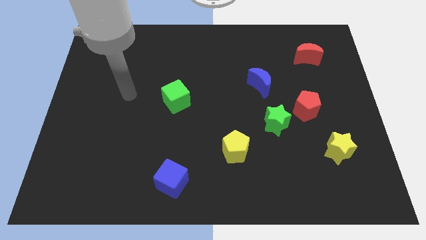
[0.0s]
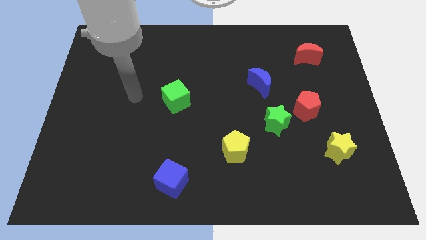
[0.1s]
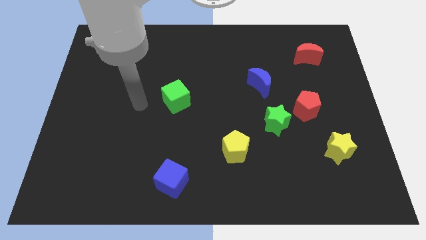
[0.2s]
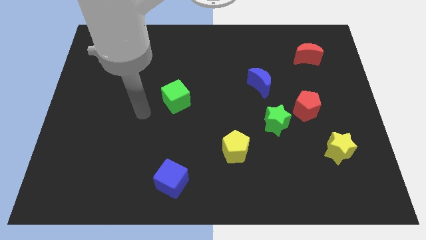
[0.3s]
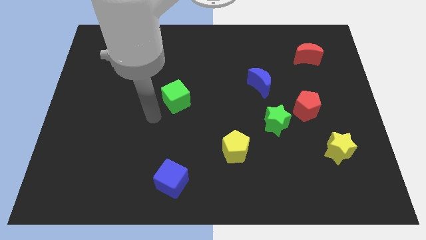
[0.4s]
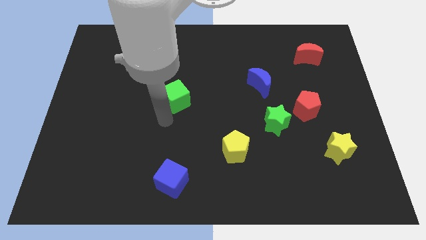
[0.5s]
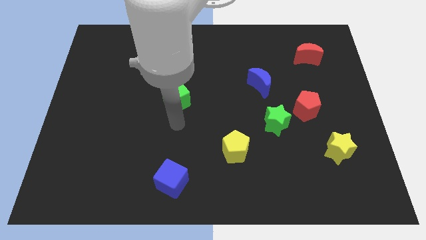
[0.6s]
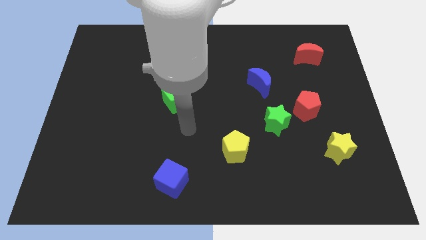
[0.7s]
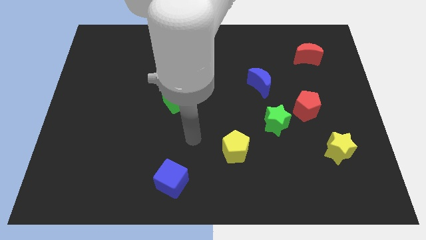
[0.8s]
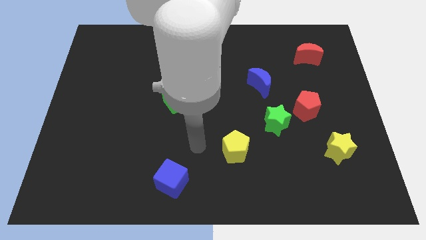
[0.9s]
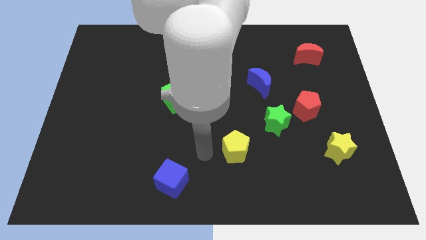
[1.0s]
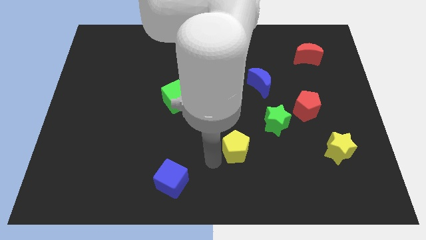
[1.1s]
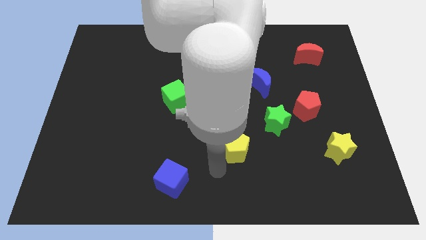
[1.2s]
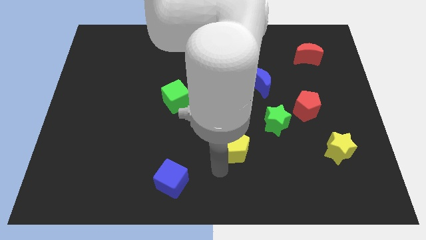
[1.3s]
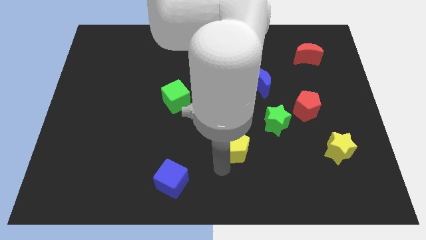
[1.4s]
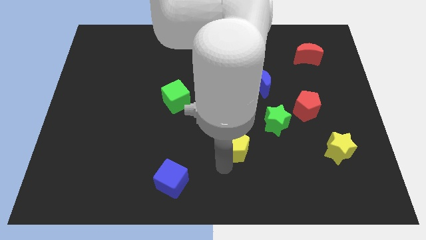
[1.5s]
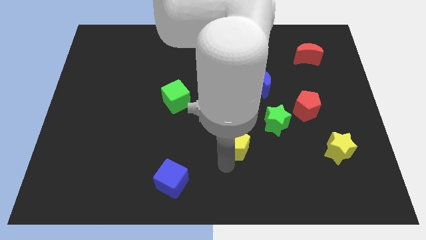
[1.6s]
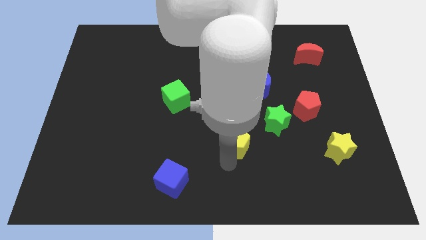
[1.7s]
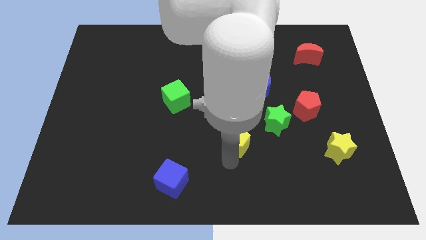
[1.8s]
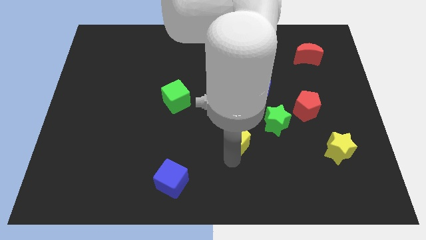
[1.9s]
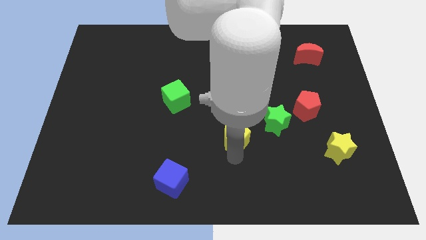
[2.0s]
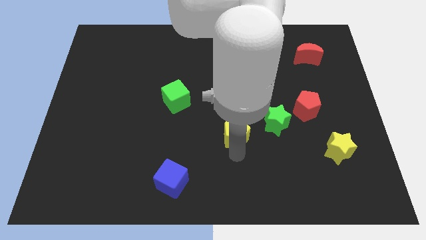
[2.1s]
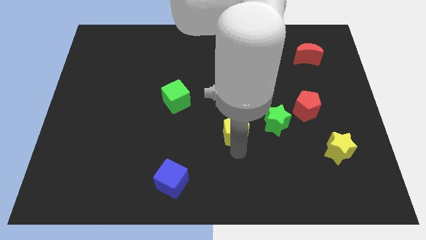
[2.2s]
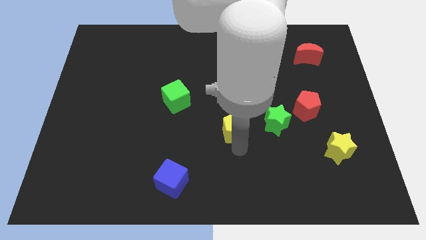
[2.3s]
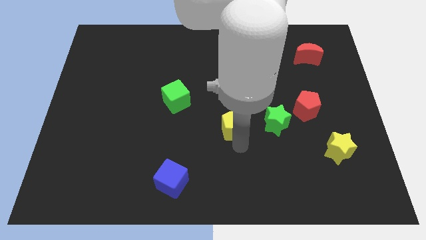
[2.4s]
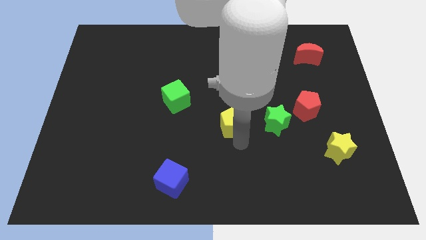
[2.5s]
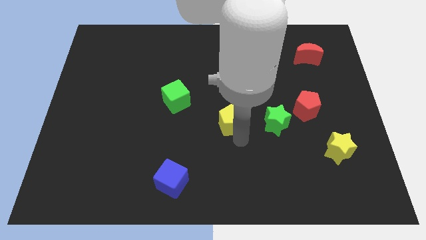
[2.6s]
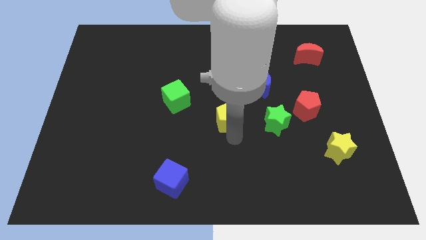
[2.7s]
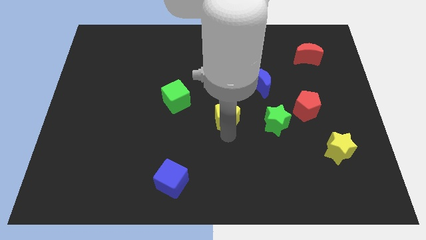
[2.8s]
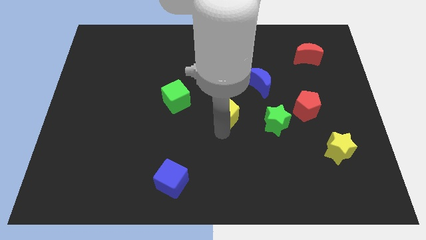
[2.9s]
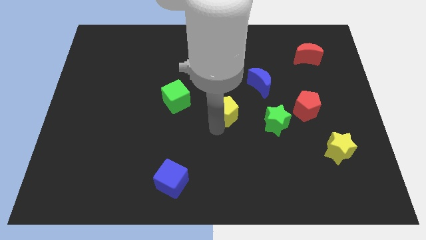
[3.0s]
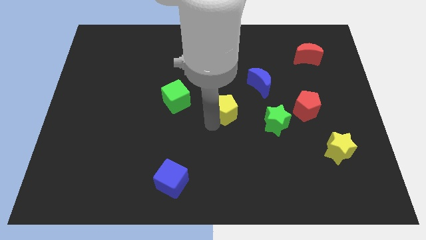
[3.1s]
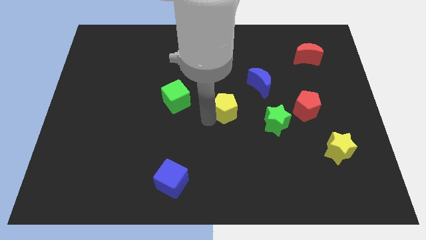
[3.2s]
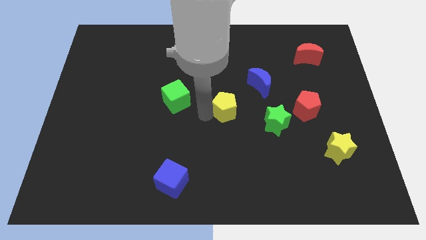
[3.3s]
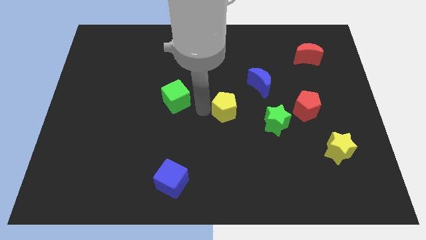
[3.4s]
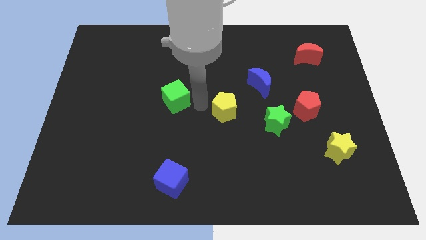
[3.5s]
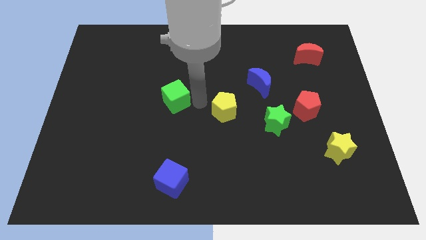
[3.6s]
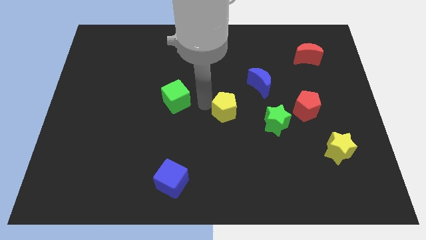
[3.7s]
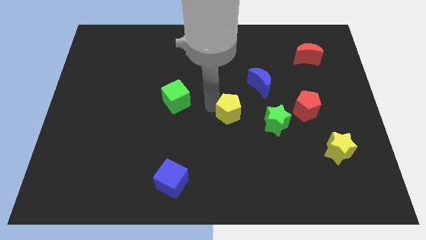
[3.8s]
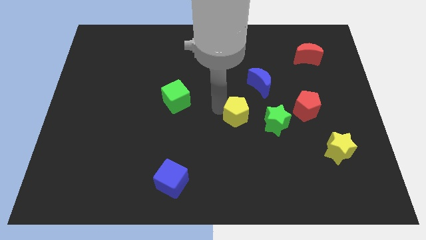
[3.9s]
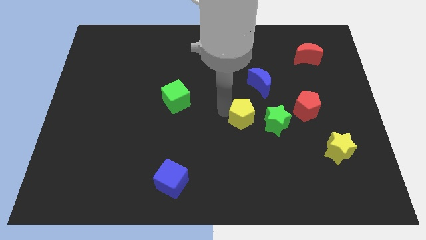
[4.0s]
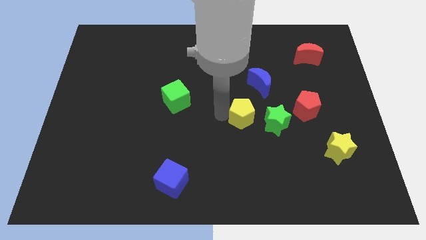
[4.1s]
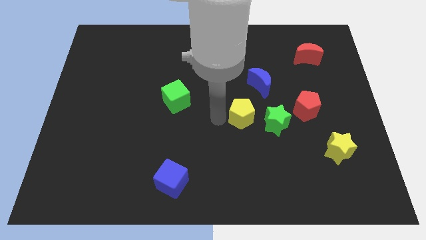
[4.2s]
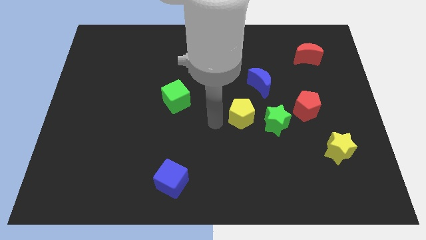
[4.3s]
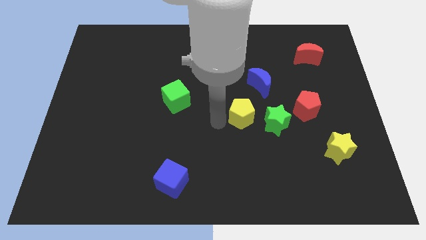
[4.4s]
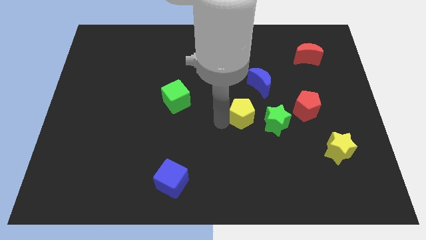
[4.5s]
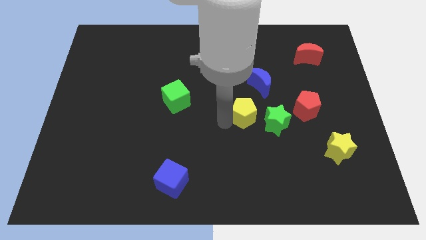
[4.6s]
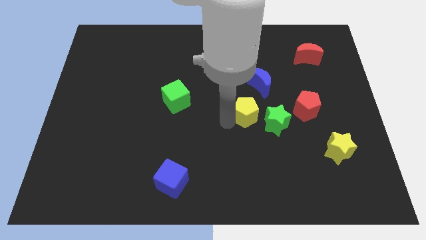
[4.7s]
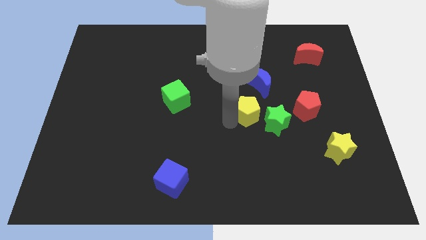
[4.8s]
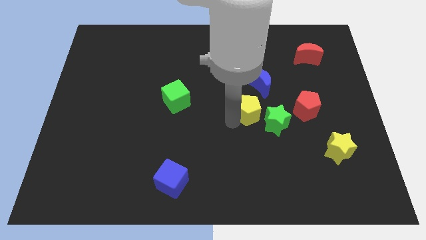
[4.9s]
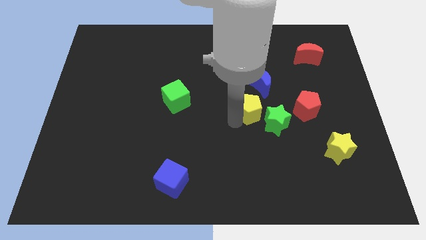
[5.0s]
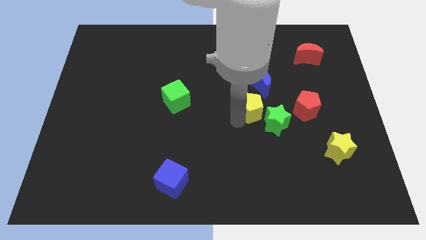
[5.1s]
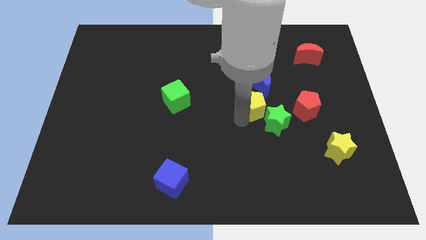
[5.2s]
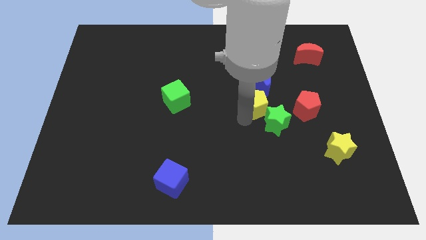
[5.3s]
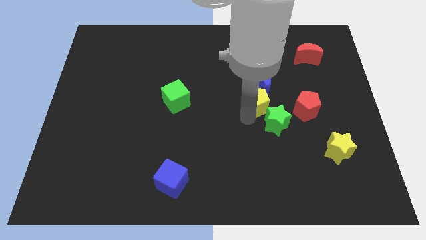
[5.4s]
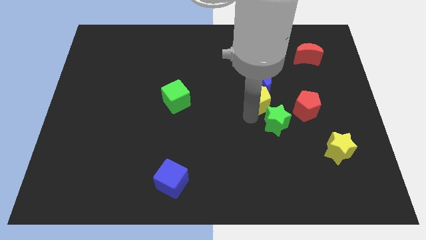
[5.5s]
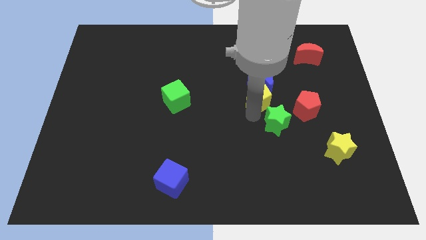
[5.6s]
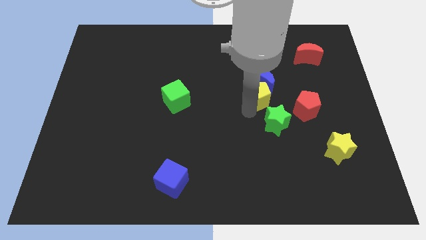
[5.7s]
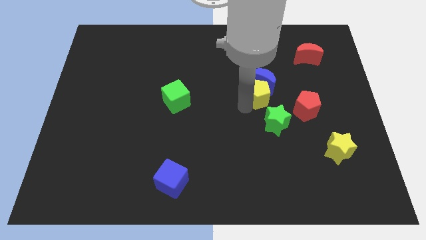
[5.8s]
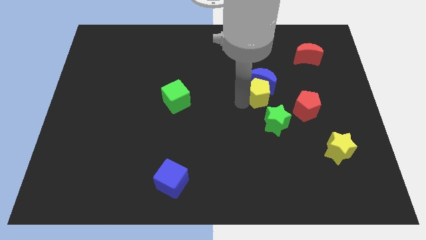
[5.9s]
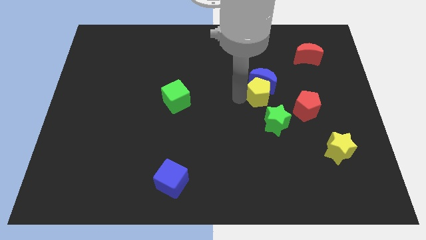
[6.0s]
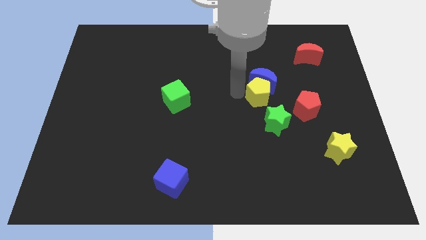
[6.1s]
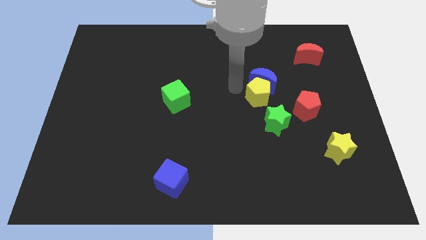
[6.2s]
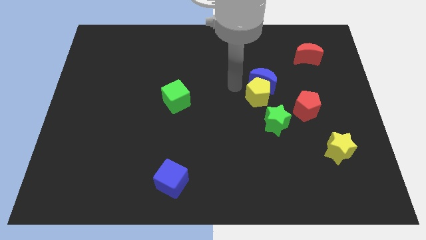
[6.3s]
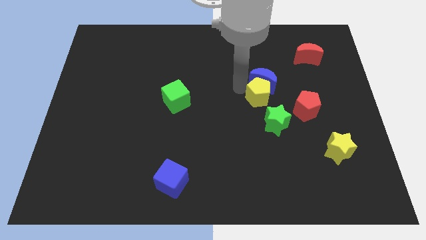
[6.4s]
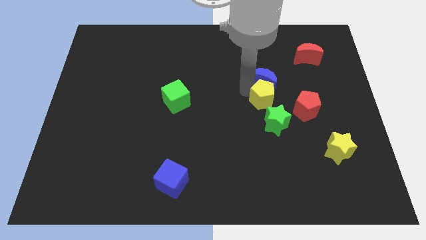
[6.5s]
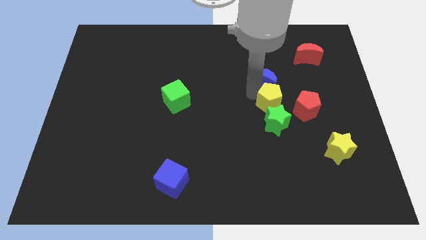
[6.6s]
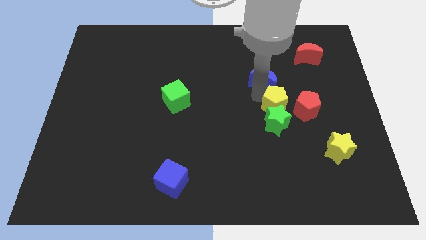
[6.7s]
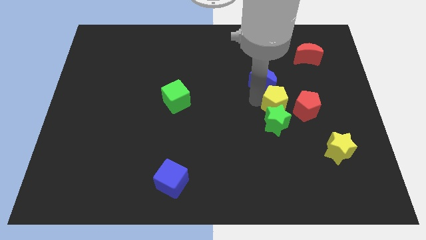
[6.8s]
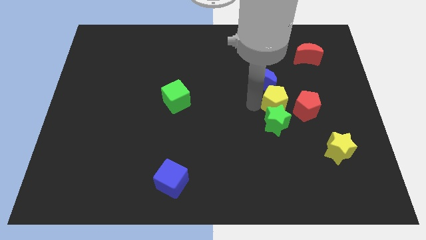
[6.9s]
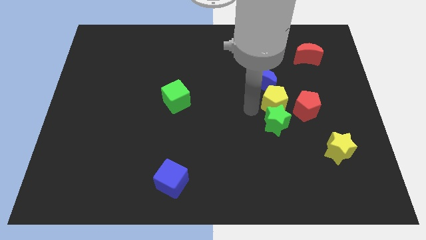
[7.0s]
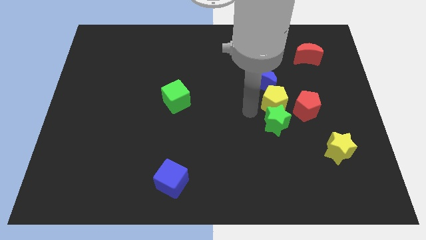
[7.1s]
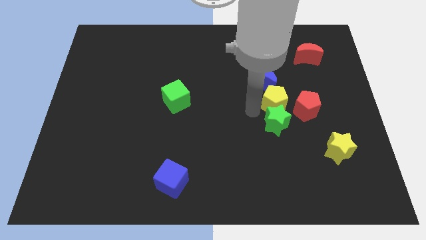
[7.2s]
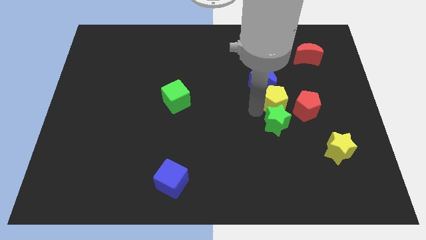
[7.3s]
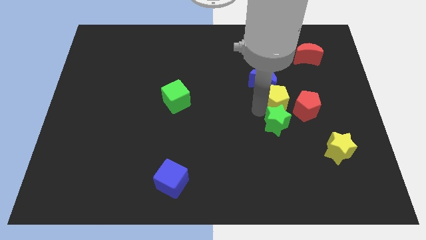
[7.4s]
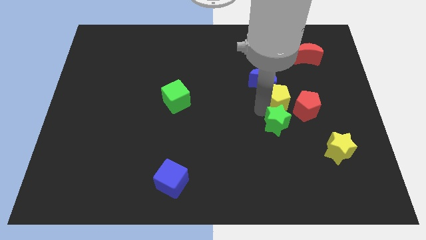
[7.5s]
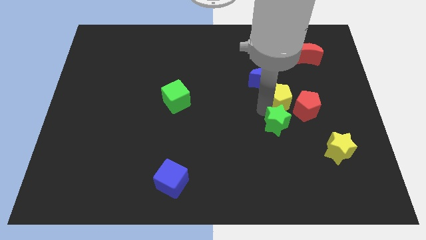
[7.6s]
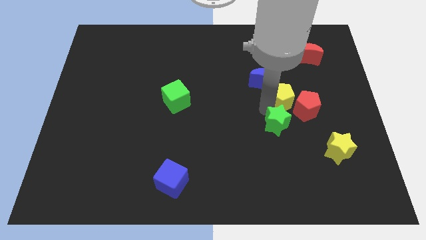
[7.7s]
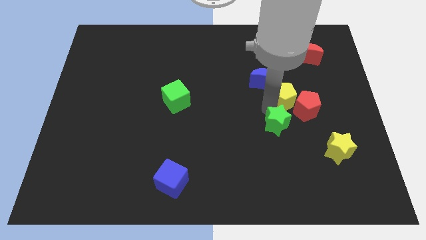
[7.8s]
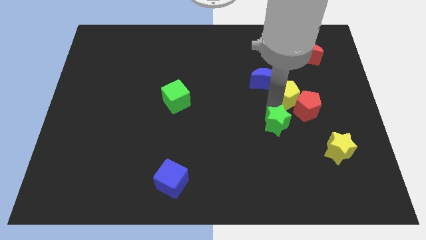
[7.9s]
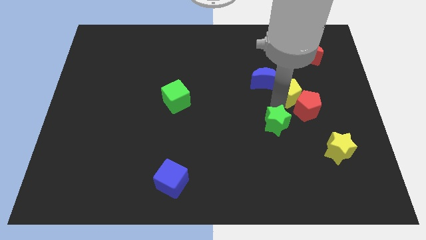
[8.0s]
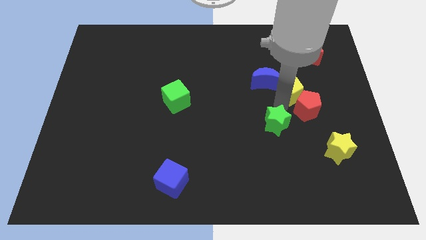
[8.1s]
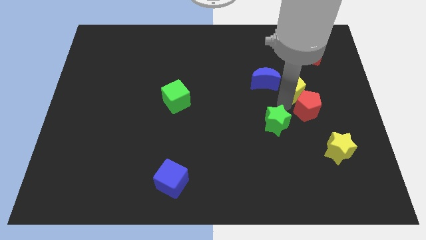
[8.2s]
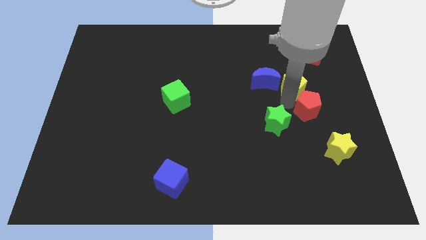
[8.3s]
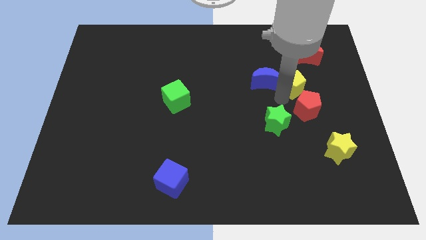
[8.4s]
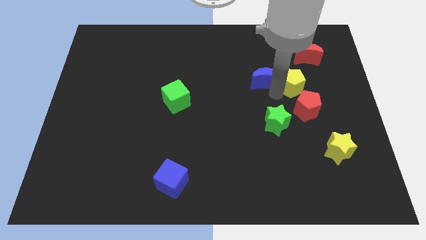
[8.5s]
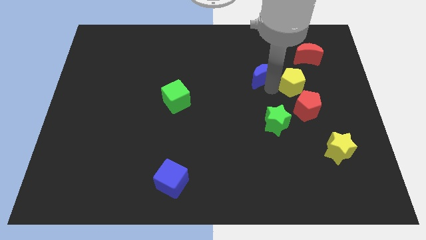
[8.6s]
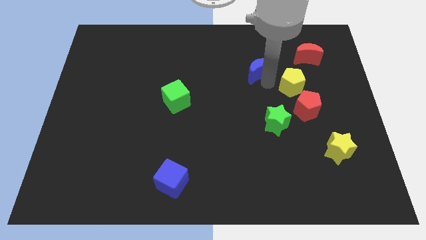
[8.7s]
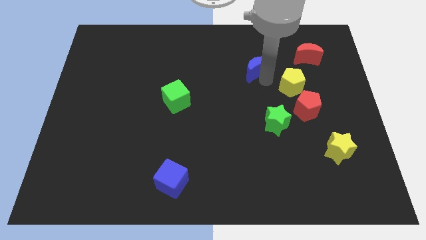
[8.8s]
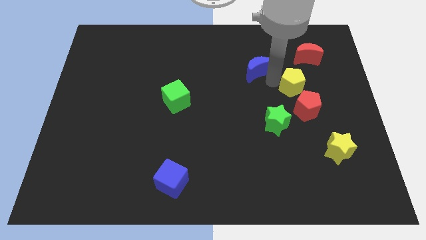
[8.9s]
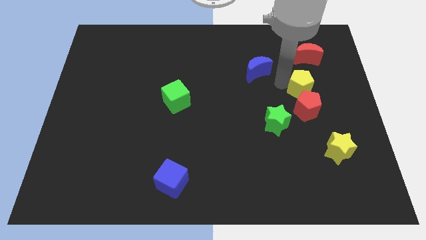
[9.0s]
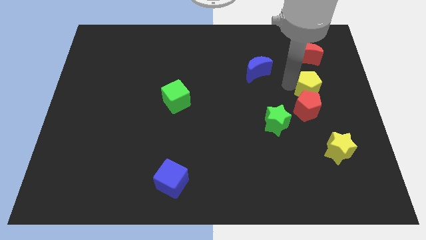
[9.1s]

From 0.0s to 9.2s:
push the yellow pentagon diagonally up and to the right of the red pentagon
